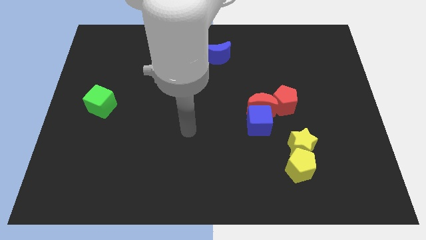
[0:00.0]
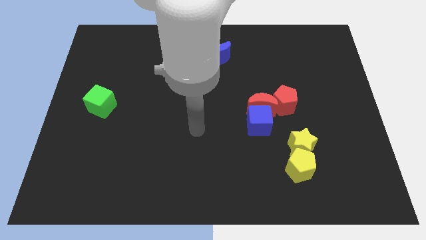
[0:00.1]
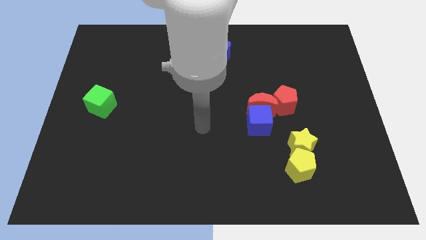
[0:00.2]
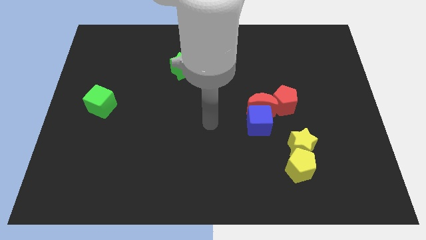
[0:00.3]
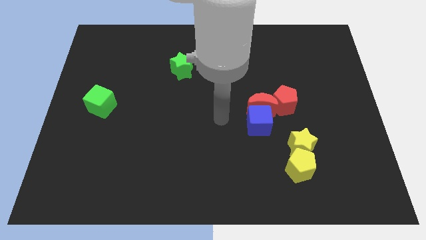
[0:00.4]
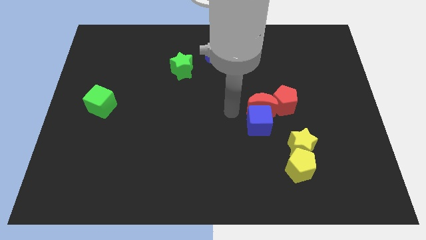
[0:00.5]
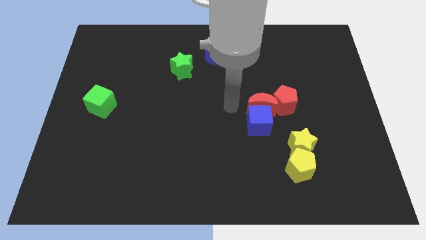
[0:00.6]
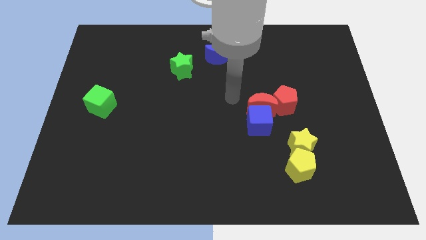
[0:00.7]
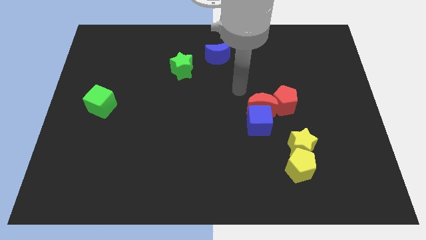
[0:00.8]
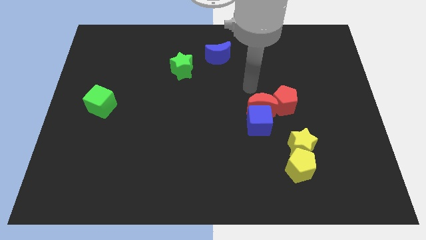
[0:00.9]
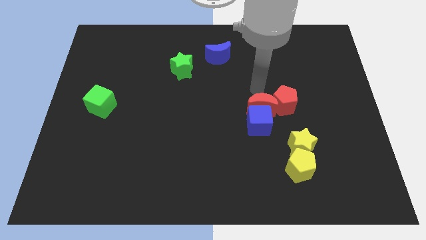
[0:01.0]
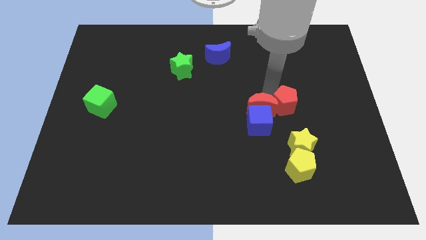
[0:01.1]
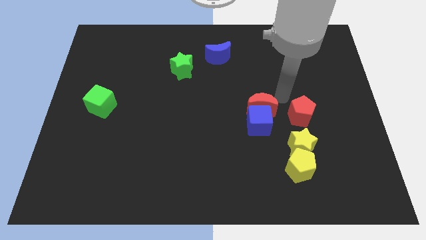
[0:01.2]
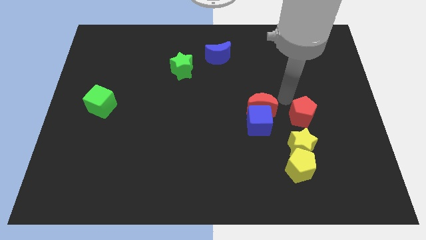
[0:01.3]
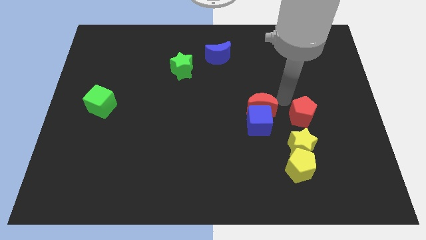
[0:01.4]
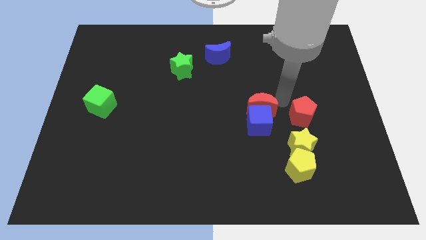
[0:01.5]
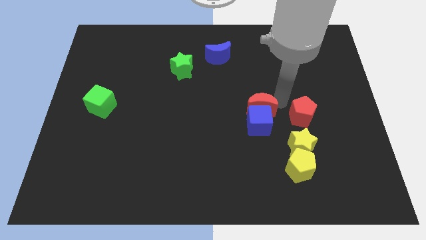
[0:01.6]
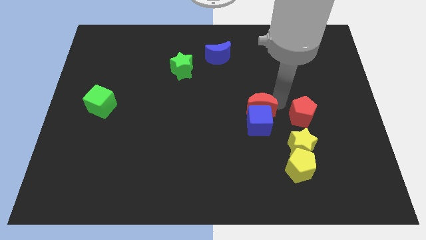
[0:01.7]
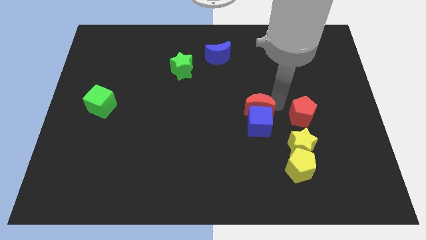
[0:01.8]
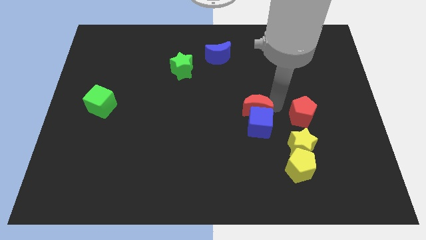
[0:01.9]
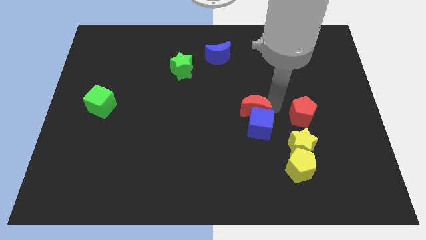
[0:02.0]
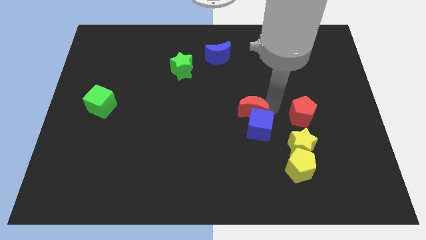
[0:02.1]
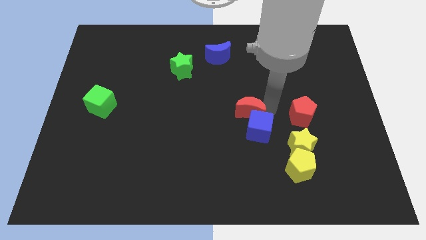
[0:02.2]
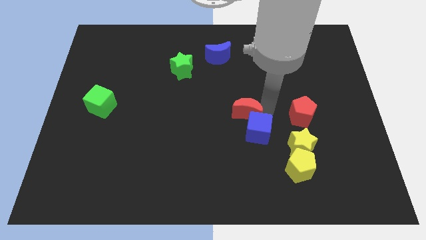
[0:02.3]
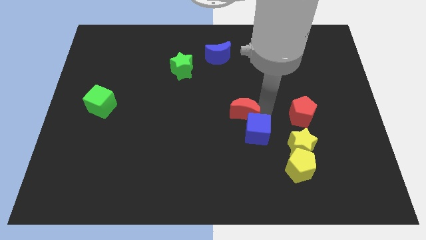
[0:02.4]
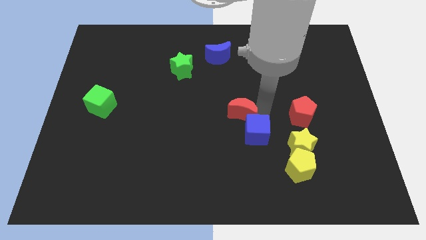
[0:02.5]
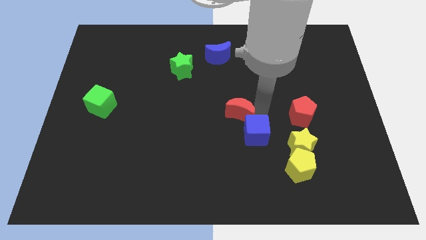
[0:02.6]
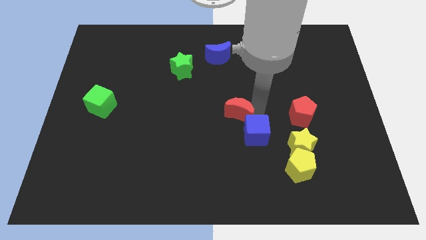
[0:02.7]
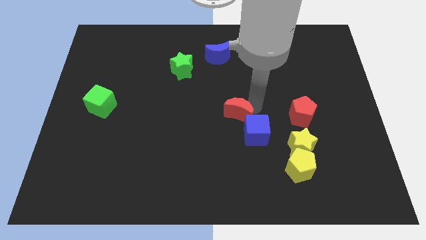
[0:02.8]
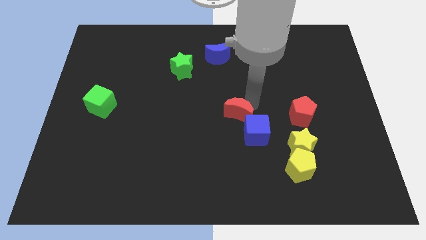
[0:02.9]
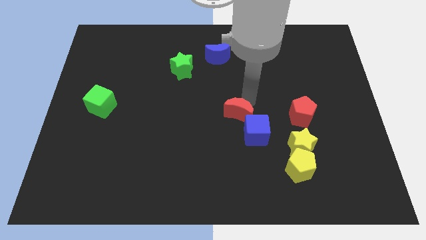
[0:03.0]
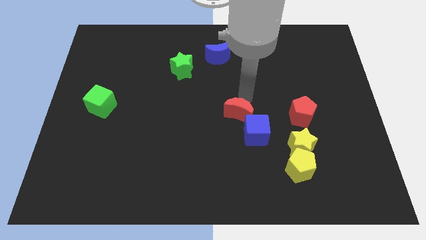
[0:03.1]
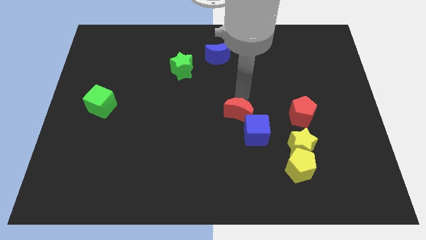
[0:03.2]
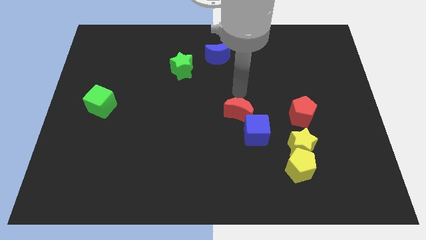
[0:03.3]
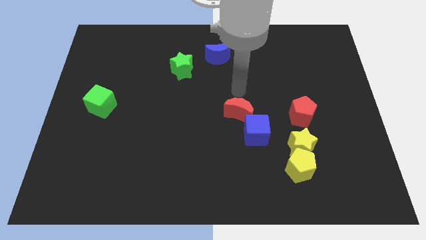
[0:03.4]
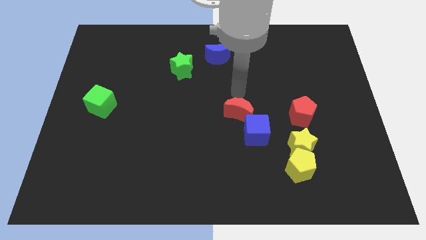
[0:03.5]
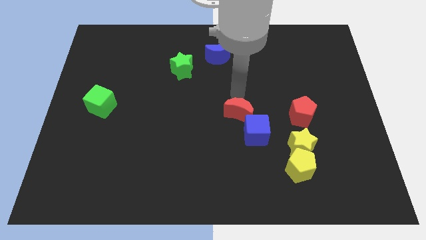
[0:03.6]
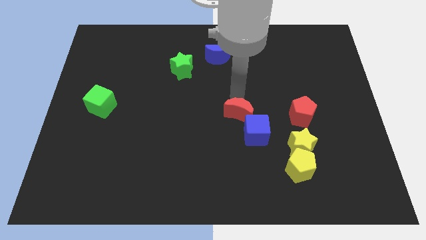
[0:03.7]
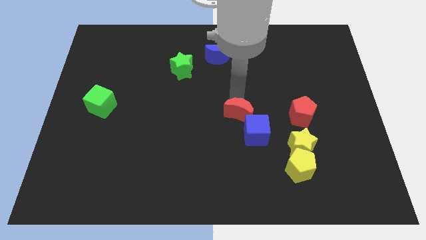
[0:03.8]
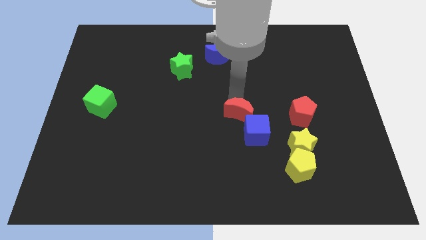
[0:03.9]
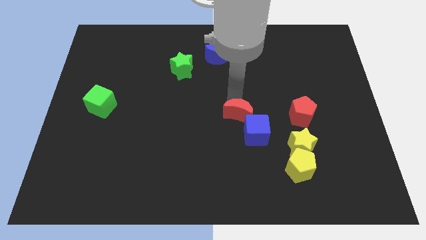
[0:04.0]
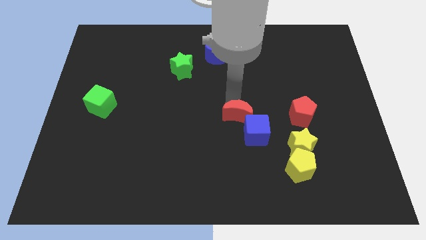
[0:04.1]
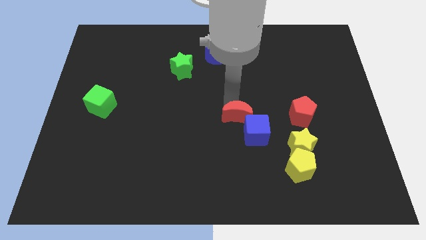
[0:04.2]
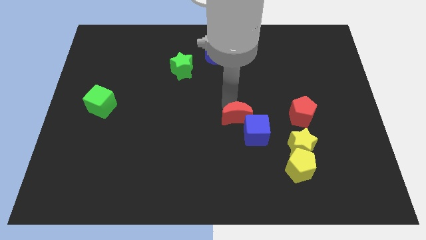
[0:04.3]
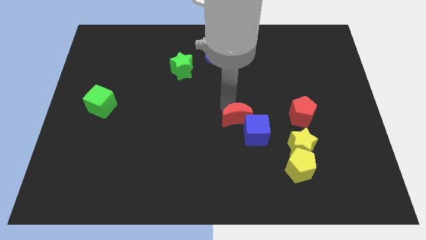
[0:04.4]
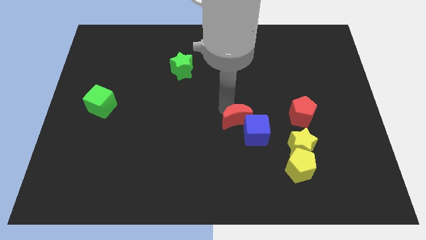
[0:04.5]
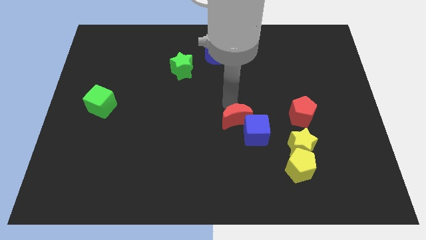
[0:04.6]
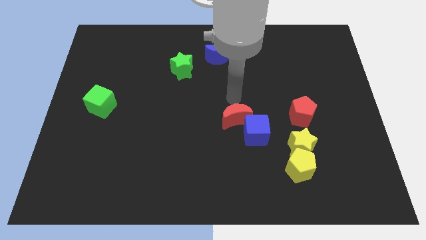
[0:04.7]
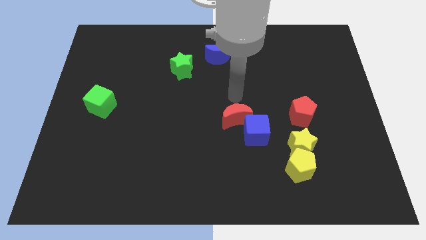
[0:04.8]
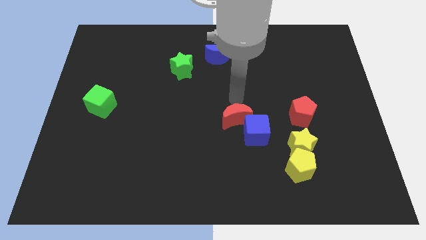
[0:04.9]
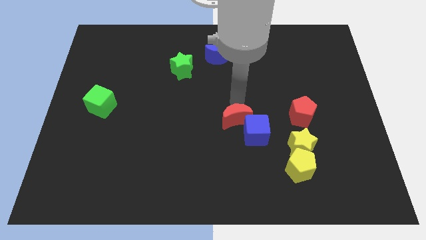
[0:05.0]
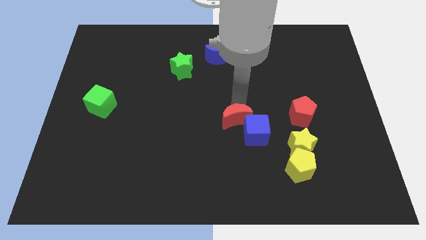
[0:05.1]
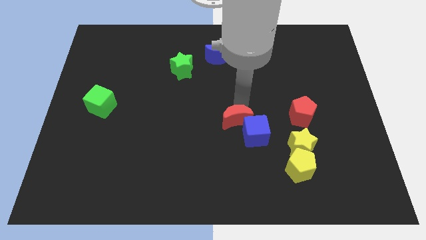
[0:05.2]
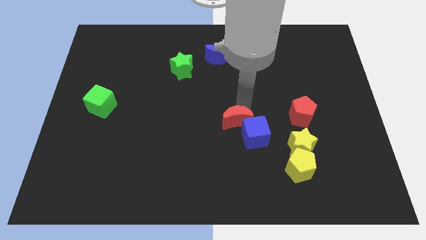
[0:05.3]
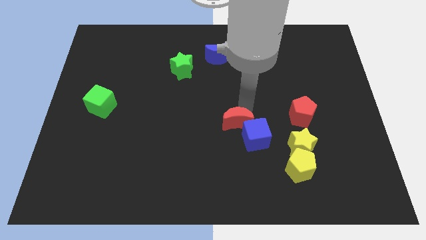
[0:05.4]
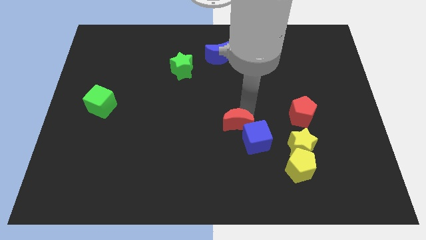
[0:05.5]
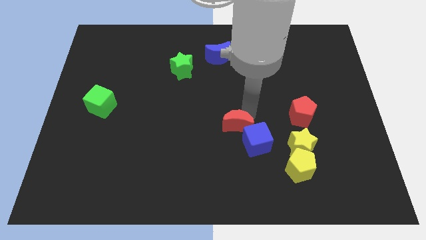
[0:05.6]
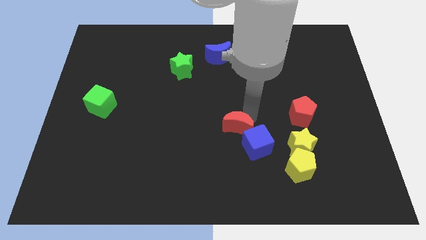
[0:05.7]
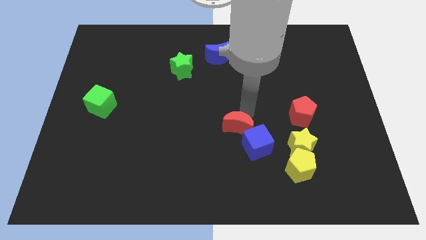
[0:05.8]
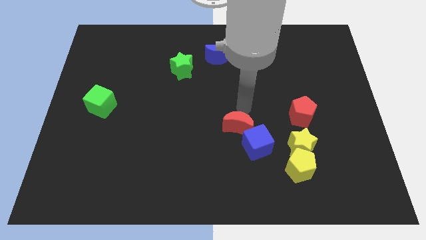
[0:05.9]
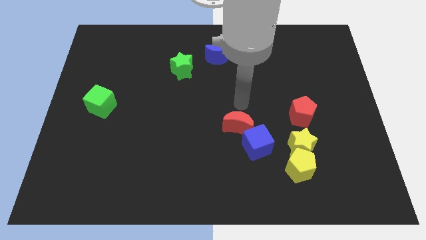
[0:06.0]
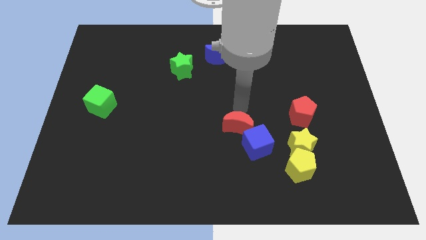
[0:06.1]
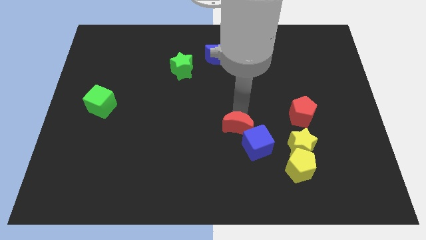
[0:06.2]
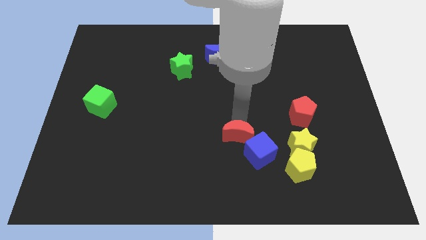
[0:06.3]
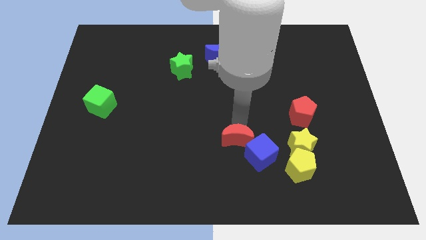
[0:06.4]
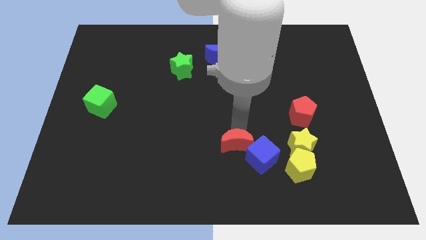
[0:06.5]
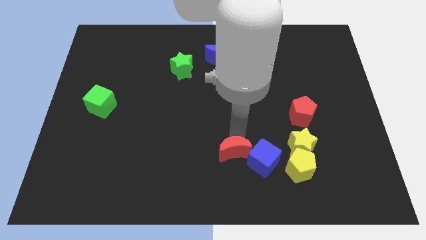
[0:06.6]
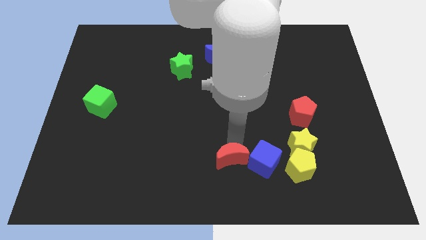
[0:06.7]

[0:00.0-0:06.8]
move the red moon to the bottom

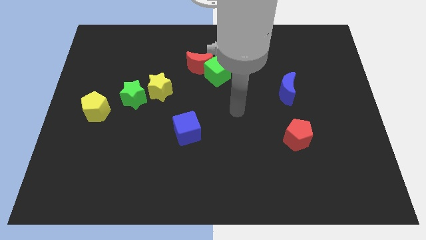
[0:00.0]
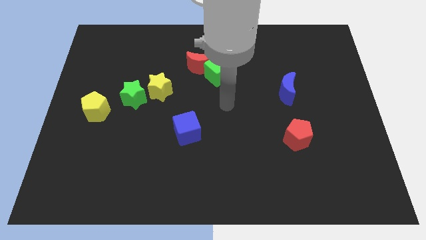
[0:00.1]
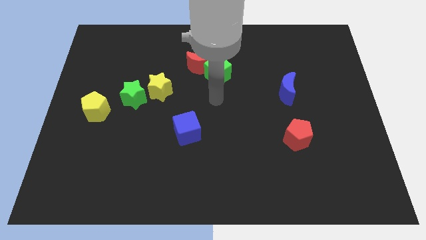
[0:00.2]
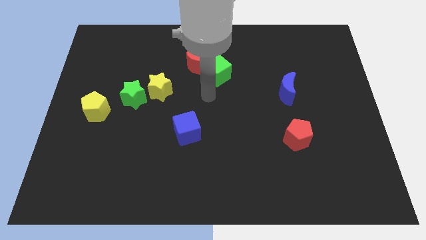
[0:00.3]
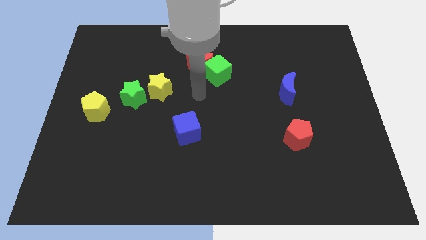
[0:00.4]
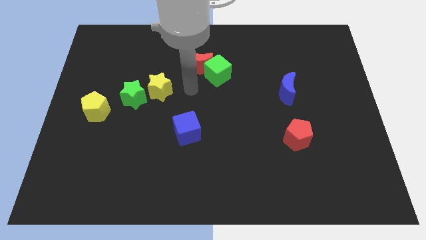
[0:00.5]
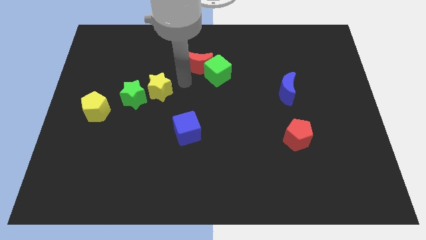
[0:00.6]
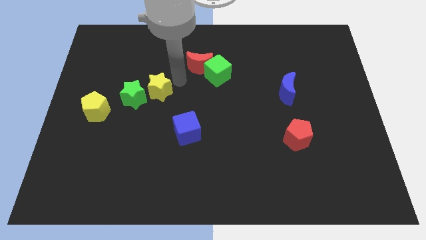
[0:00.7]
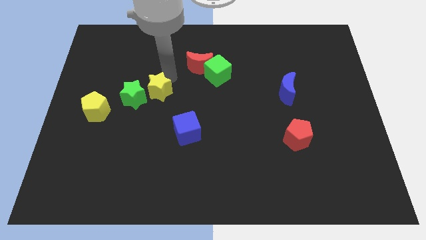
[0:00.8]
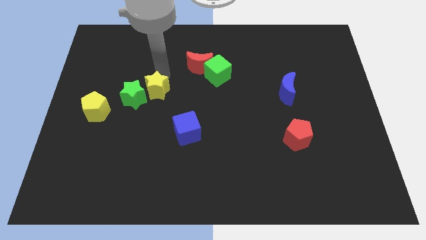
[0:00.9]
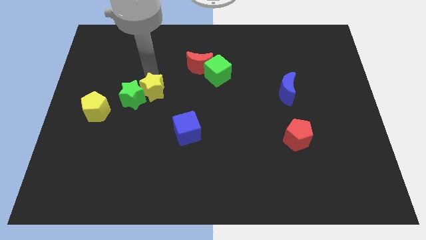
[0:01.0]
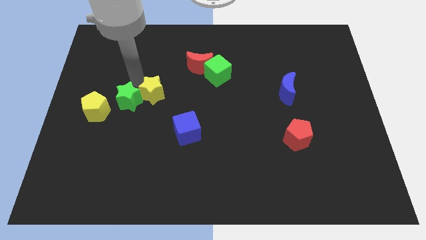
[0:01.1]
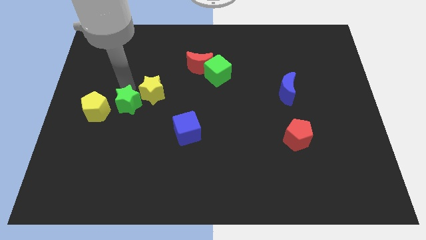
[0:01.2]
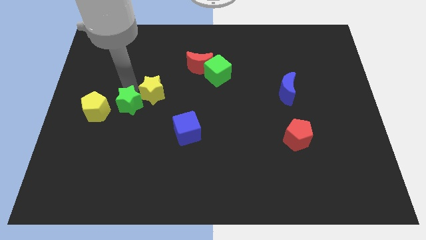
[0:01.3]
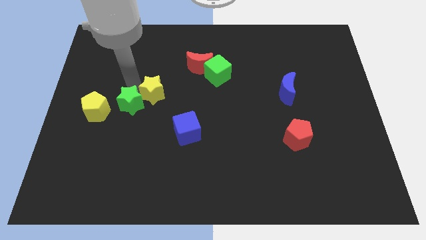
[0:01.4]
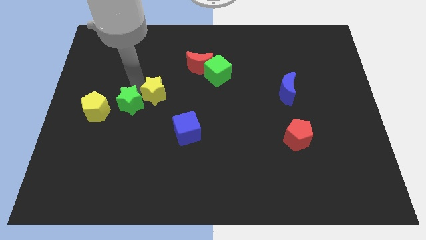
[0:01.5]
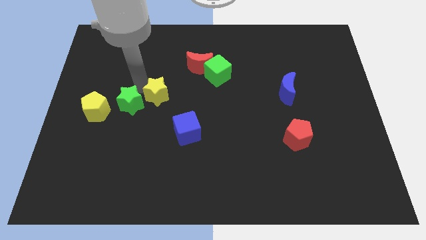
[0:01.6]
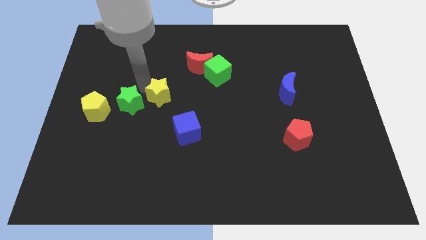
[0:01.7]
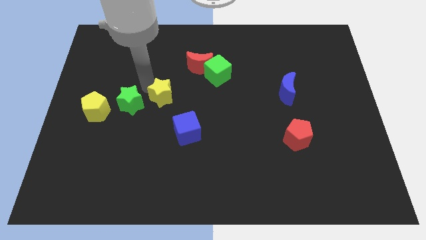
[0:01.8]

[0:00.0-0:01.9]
push the yellow star to the center
